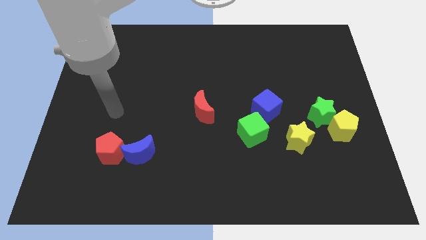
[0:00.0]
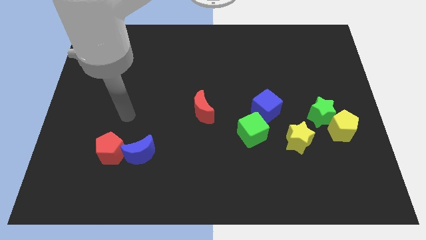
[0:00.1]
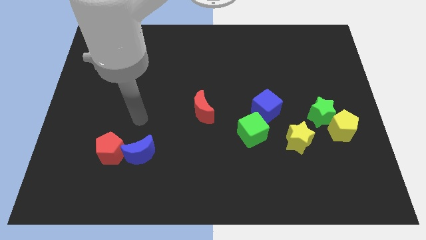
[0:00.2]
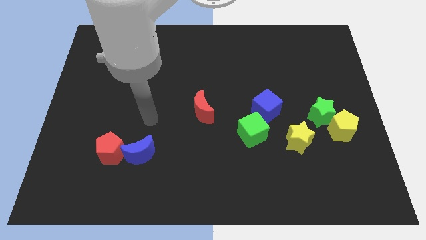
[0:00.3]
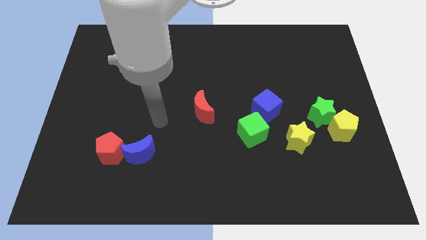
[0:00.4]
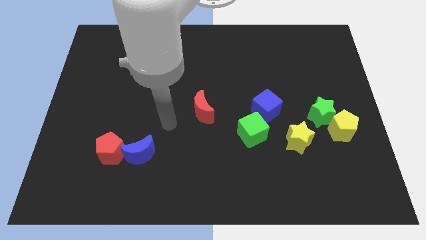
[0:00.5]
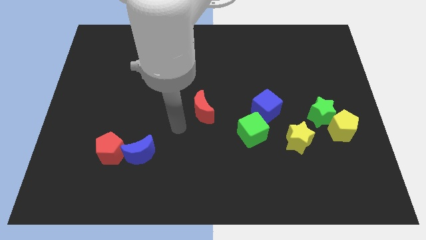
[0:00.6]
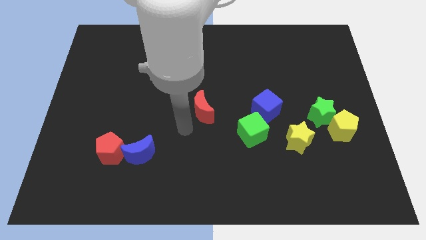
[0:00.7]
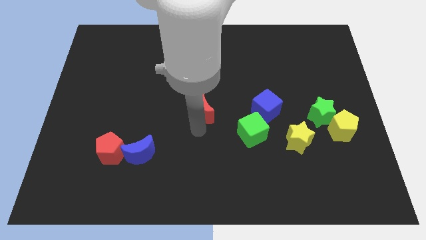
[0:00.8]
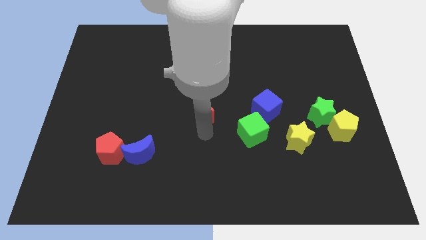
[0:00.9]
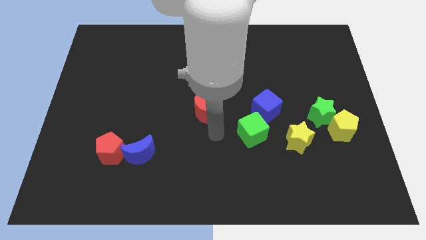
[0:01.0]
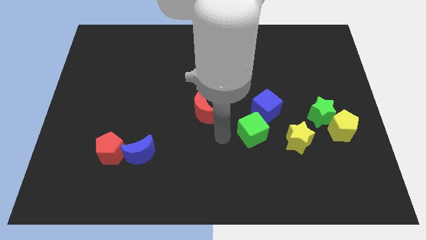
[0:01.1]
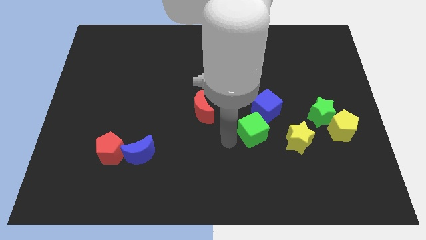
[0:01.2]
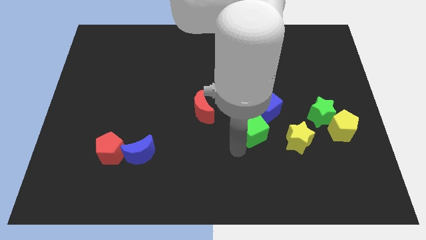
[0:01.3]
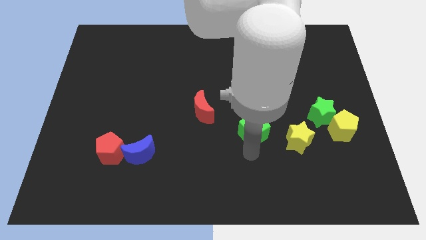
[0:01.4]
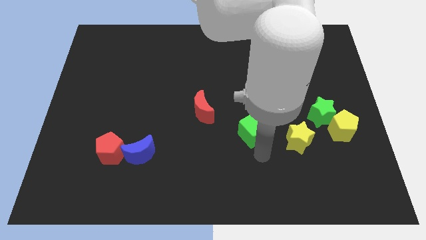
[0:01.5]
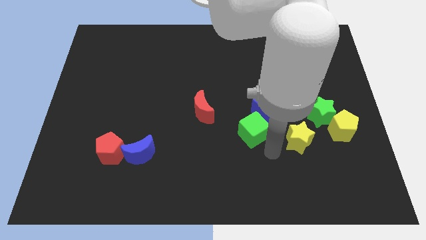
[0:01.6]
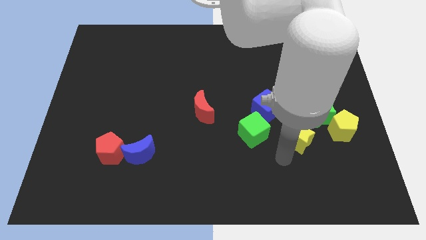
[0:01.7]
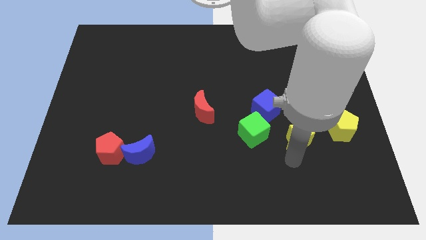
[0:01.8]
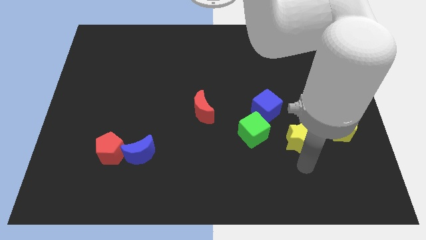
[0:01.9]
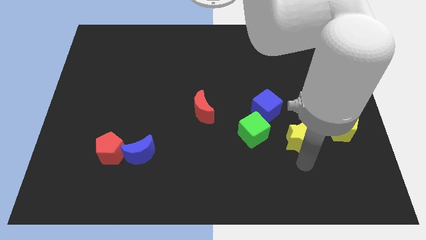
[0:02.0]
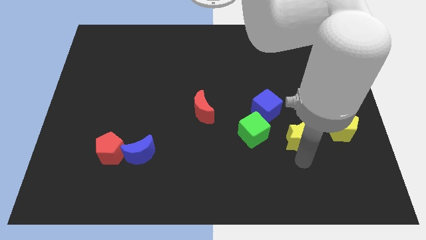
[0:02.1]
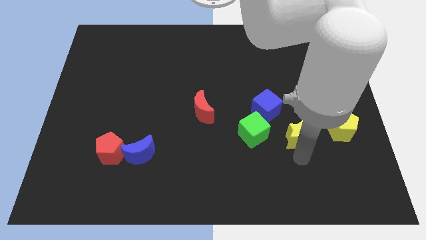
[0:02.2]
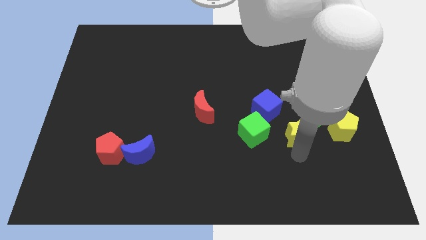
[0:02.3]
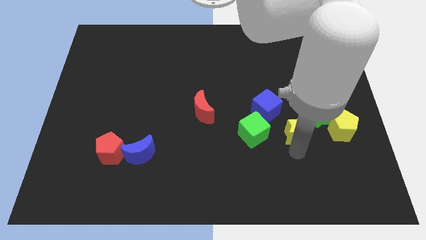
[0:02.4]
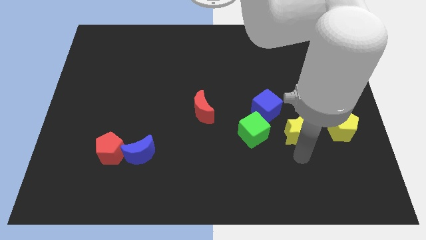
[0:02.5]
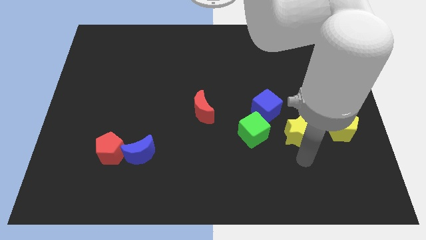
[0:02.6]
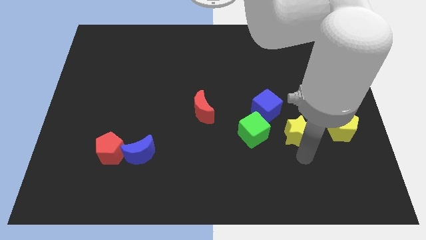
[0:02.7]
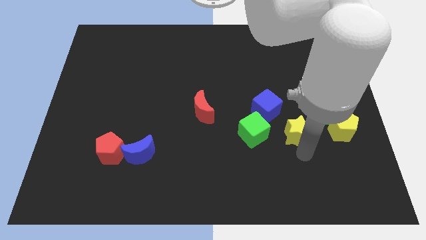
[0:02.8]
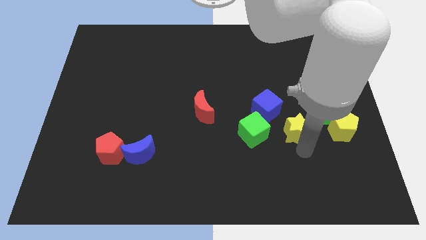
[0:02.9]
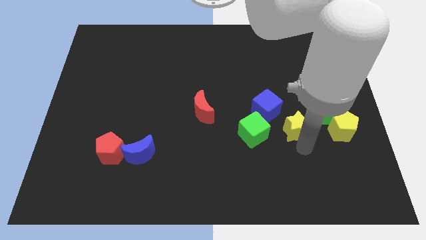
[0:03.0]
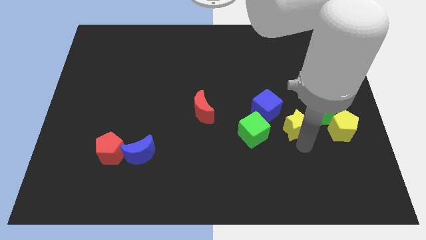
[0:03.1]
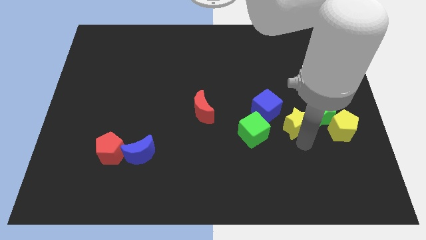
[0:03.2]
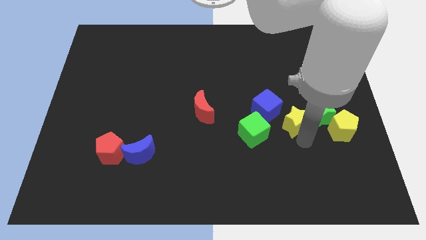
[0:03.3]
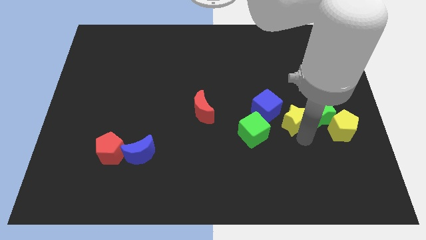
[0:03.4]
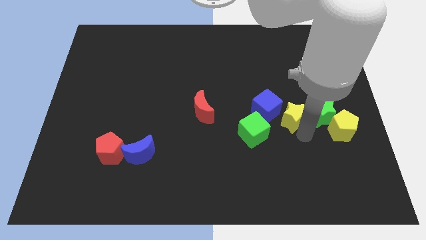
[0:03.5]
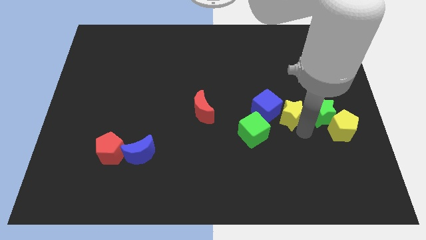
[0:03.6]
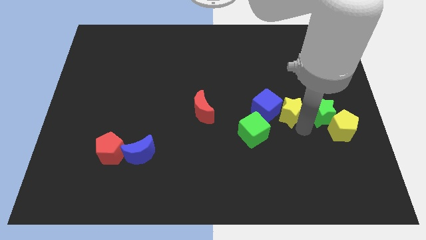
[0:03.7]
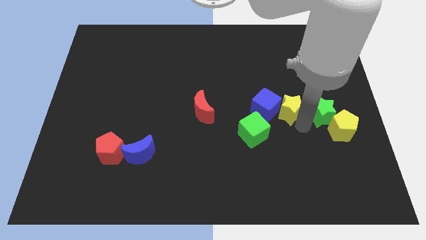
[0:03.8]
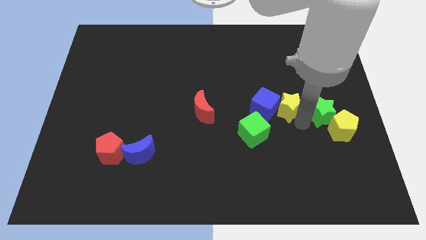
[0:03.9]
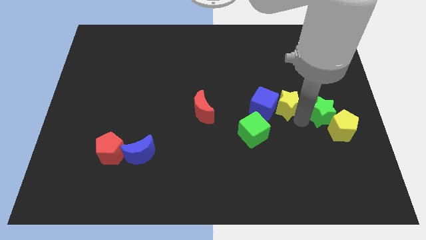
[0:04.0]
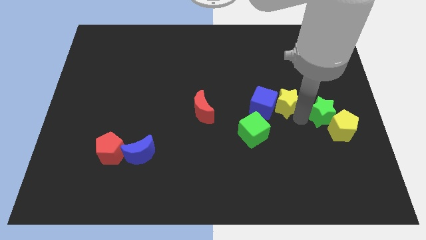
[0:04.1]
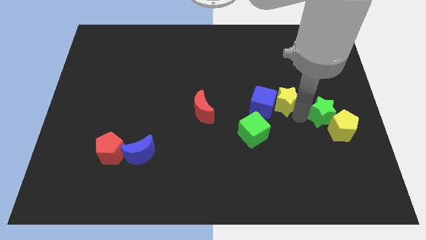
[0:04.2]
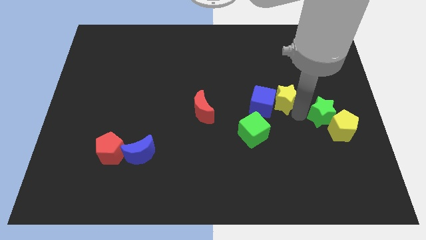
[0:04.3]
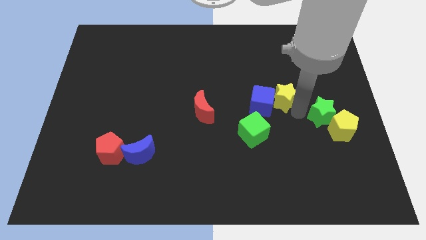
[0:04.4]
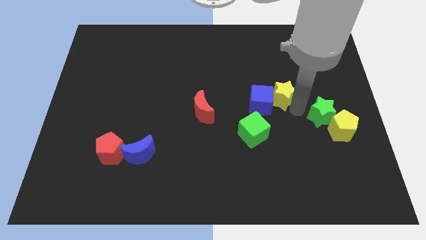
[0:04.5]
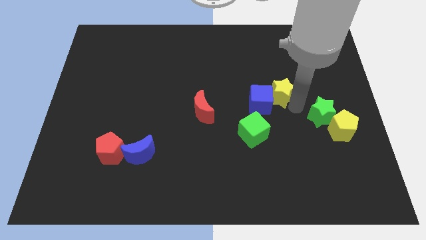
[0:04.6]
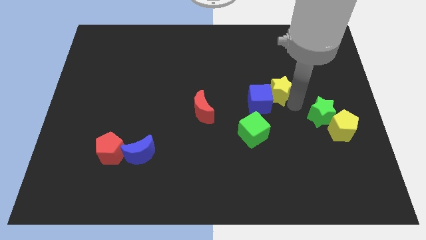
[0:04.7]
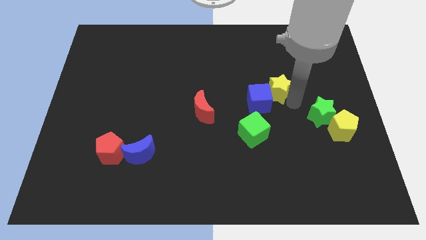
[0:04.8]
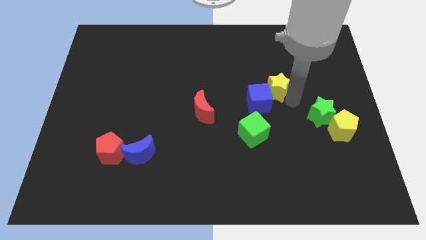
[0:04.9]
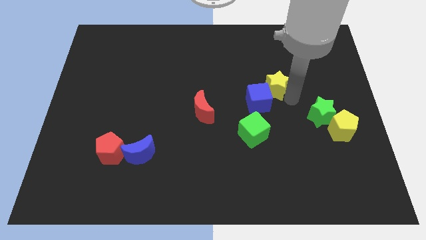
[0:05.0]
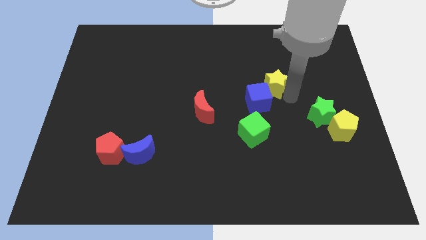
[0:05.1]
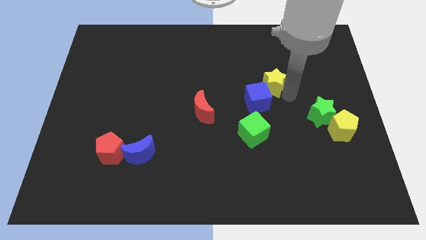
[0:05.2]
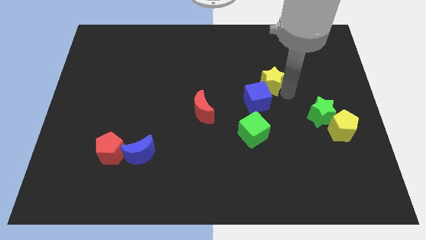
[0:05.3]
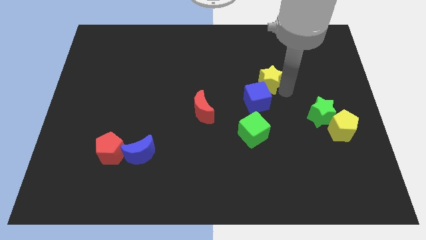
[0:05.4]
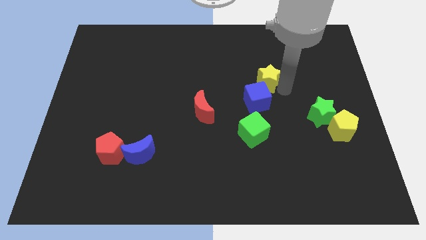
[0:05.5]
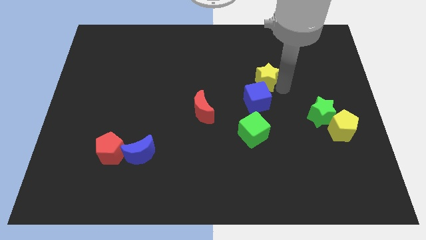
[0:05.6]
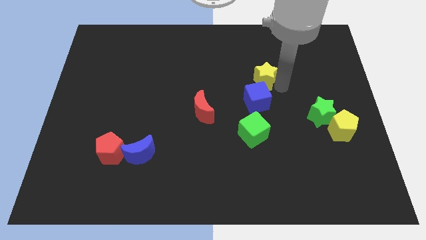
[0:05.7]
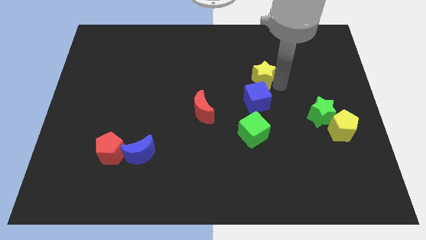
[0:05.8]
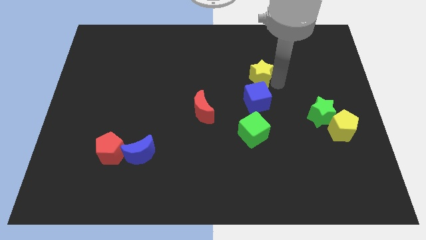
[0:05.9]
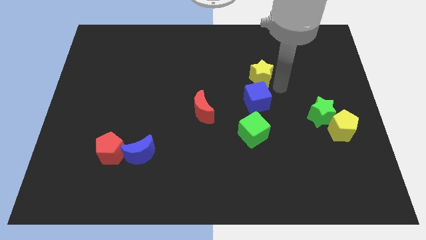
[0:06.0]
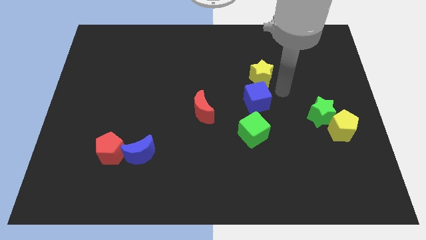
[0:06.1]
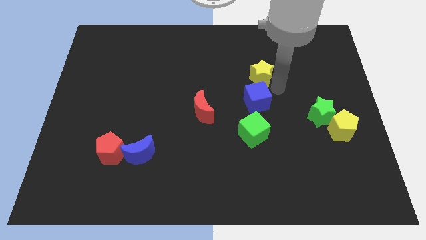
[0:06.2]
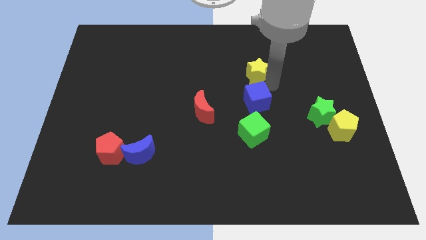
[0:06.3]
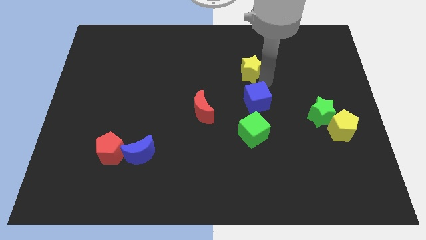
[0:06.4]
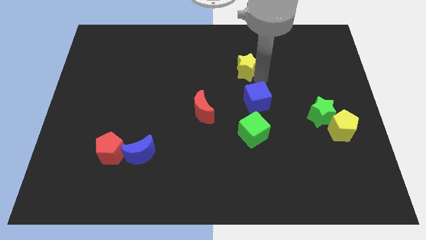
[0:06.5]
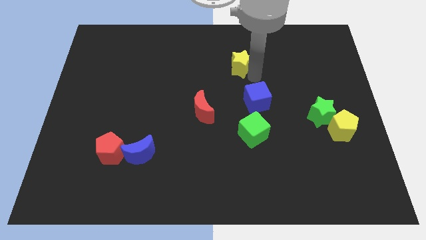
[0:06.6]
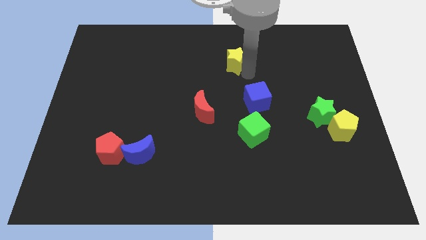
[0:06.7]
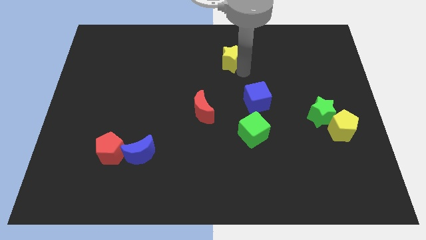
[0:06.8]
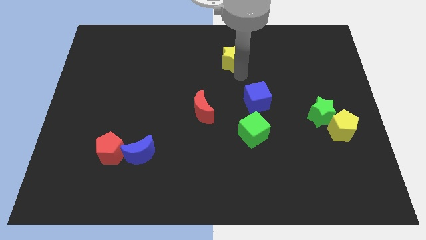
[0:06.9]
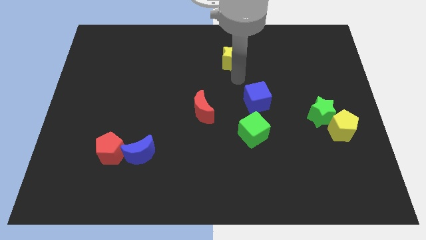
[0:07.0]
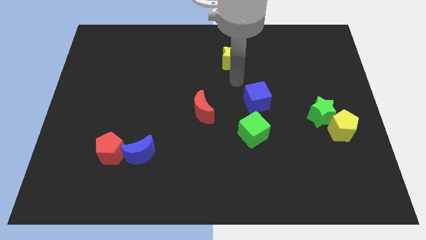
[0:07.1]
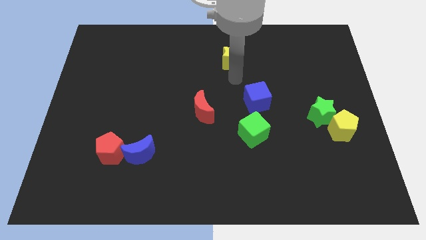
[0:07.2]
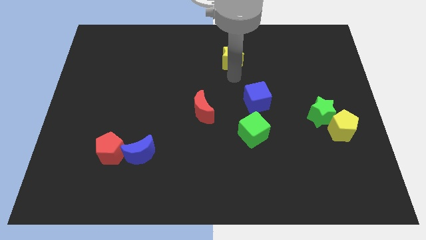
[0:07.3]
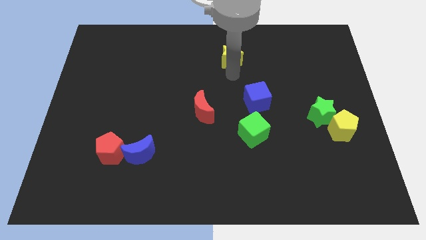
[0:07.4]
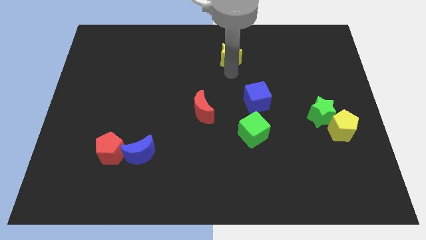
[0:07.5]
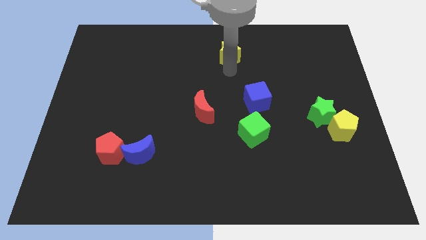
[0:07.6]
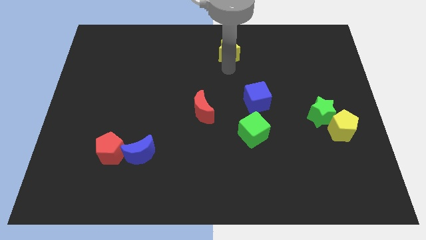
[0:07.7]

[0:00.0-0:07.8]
push the yellow star to the top
